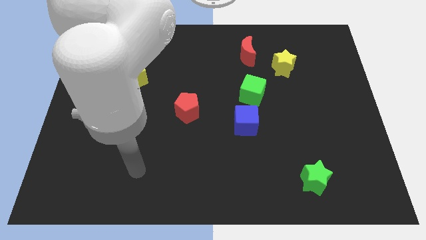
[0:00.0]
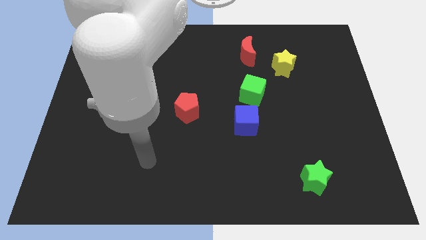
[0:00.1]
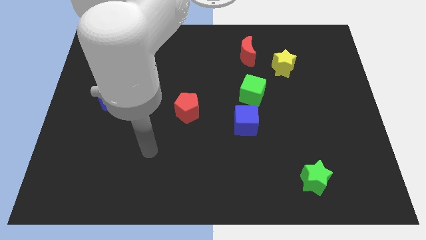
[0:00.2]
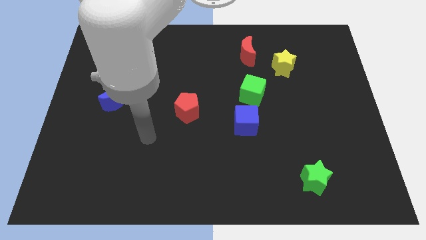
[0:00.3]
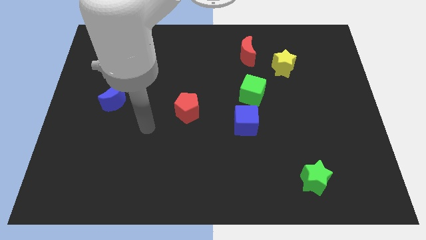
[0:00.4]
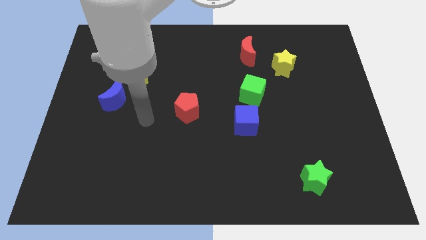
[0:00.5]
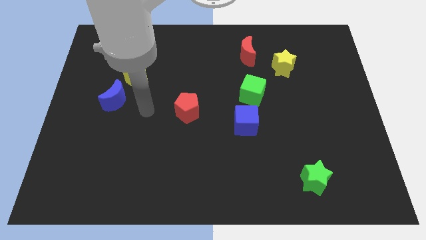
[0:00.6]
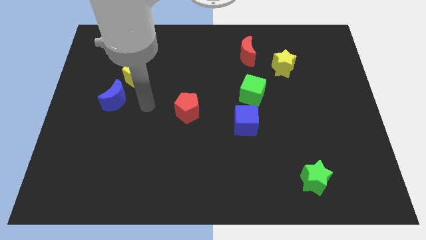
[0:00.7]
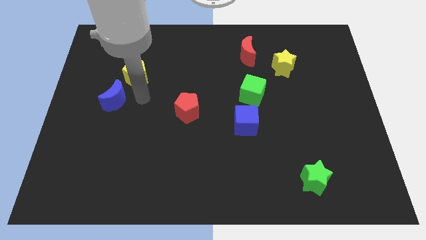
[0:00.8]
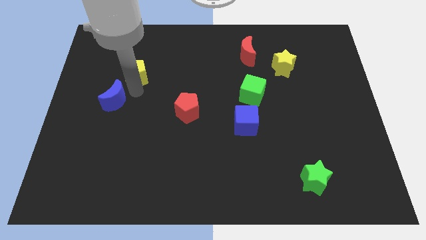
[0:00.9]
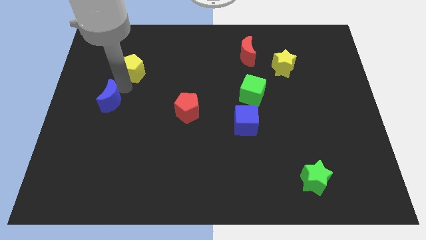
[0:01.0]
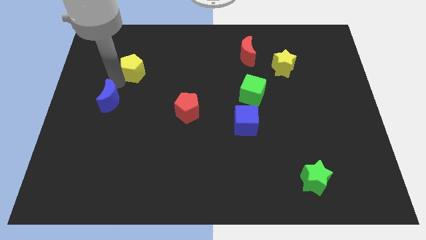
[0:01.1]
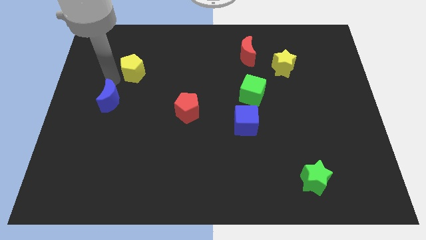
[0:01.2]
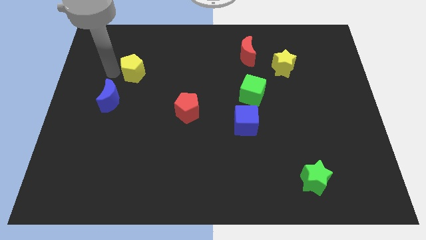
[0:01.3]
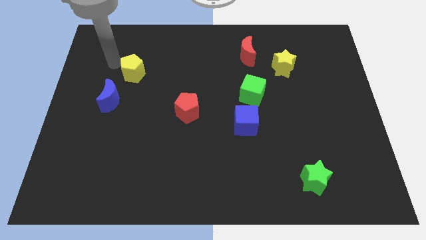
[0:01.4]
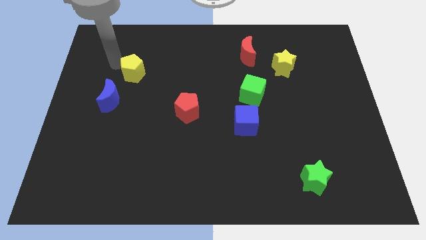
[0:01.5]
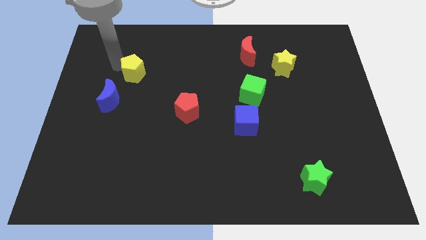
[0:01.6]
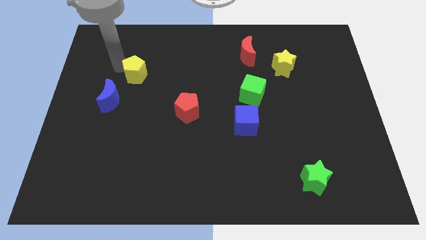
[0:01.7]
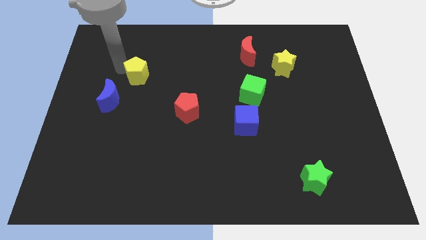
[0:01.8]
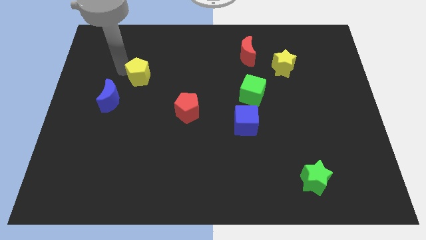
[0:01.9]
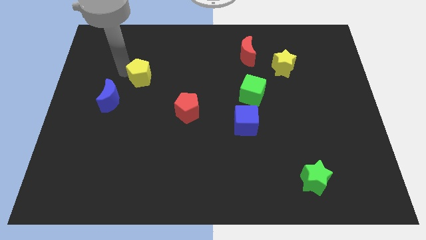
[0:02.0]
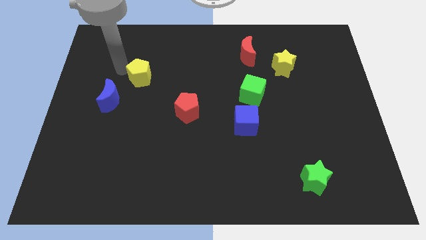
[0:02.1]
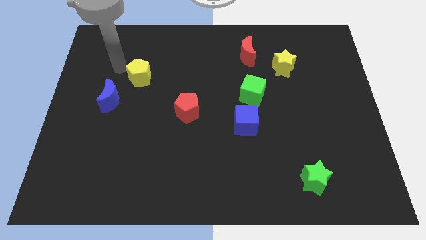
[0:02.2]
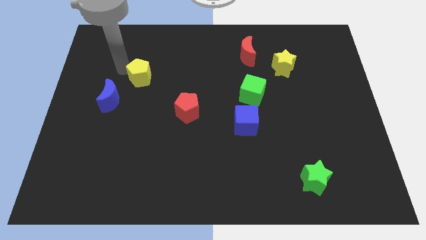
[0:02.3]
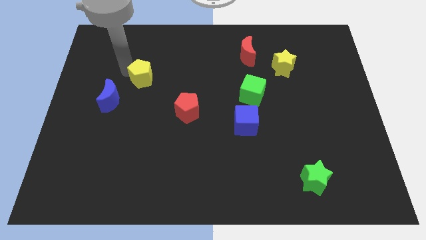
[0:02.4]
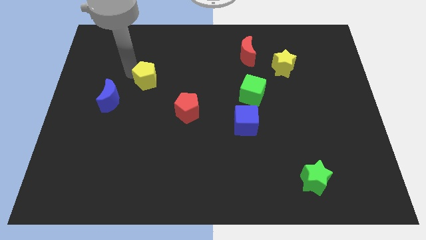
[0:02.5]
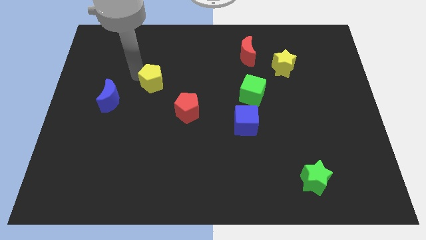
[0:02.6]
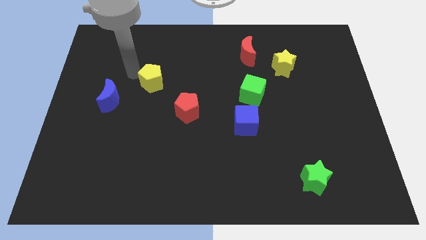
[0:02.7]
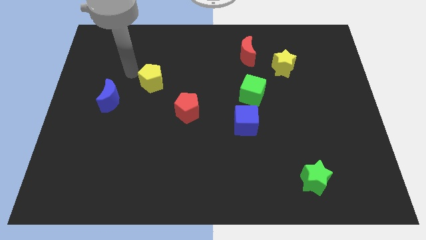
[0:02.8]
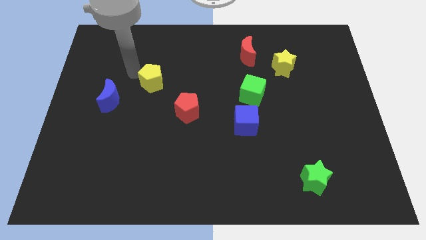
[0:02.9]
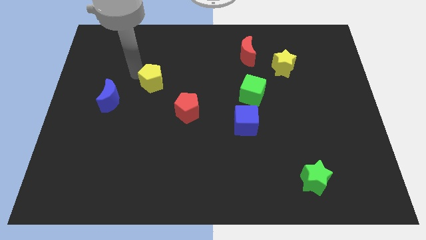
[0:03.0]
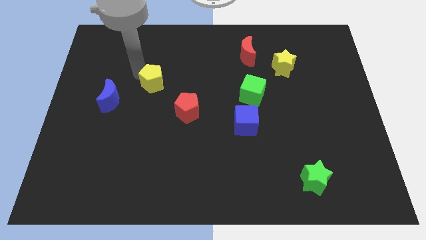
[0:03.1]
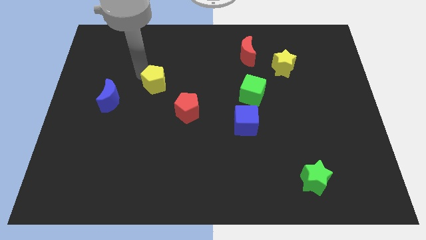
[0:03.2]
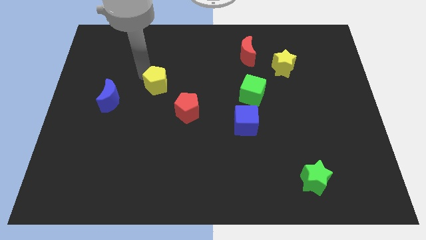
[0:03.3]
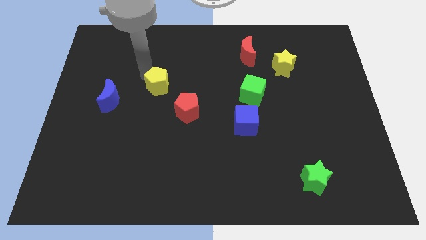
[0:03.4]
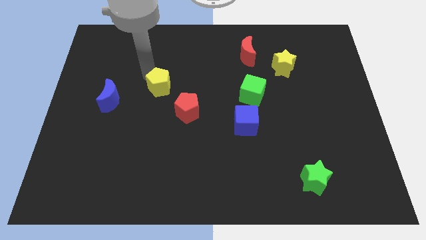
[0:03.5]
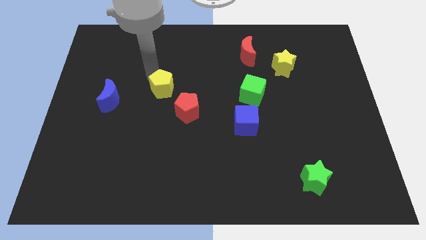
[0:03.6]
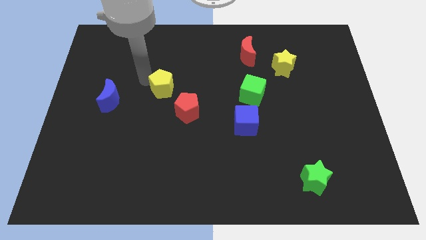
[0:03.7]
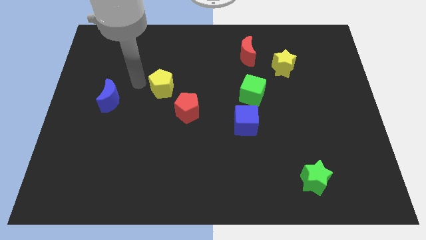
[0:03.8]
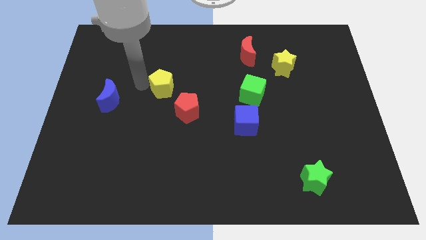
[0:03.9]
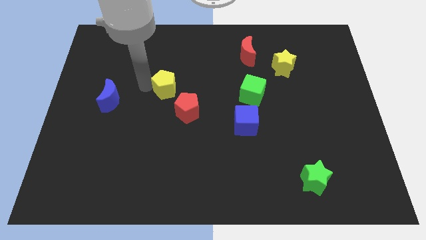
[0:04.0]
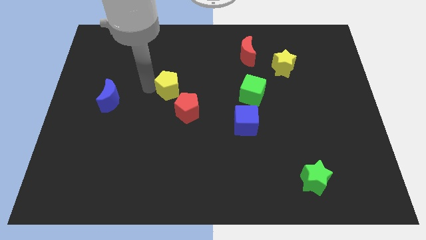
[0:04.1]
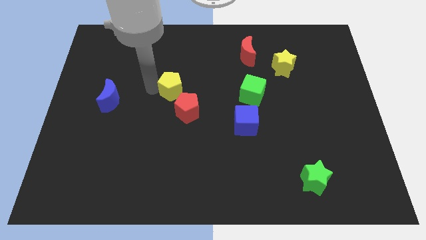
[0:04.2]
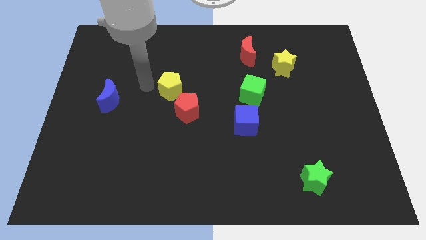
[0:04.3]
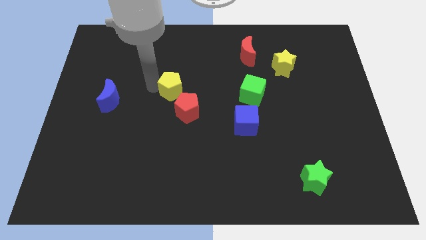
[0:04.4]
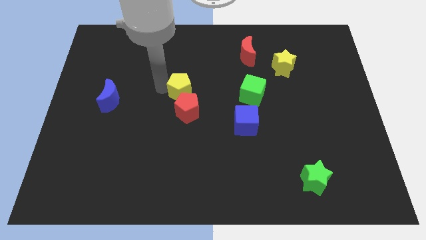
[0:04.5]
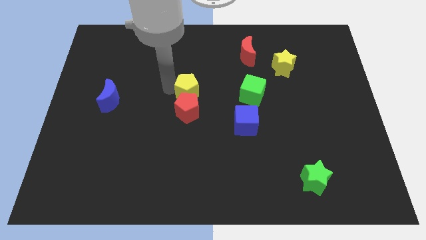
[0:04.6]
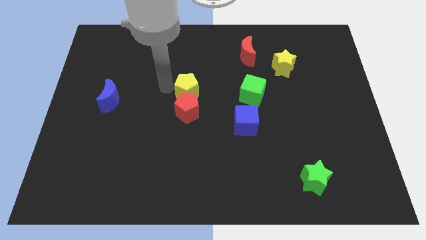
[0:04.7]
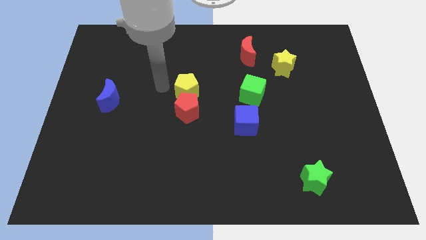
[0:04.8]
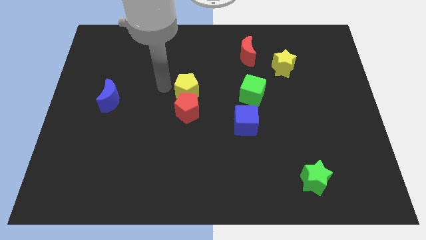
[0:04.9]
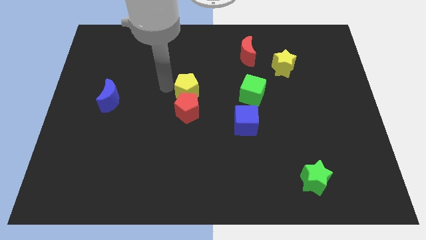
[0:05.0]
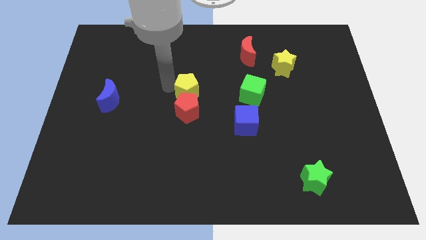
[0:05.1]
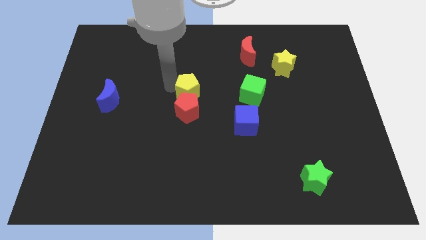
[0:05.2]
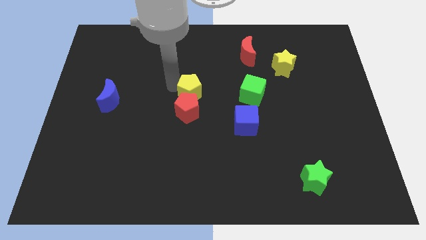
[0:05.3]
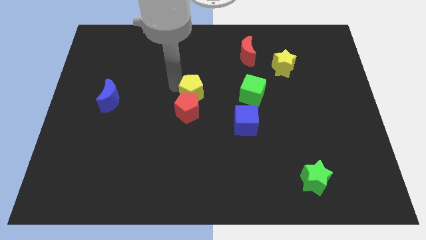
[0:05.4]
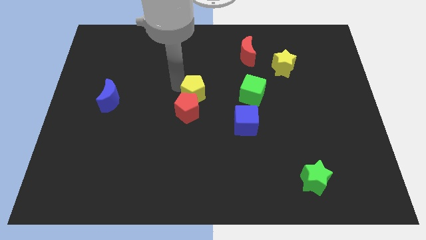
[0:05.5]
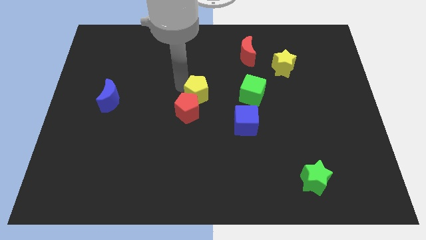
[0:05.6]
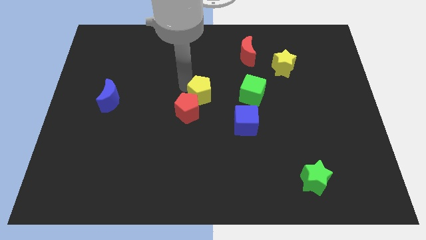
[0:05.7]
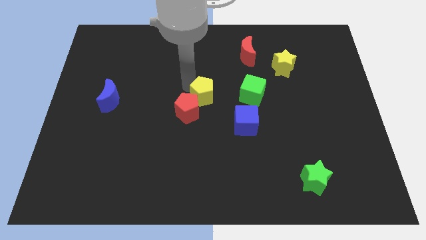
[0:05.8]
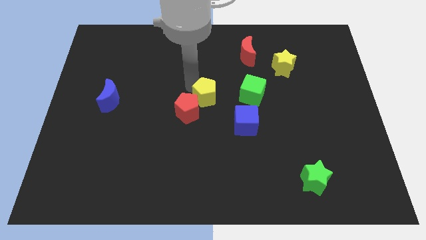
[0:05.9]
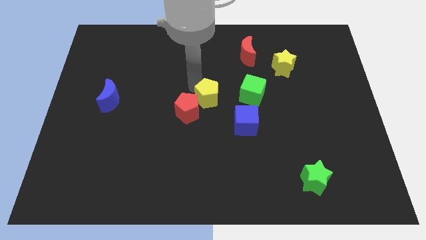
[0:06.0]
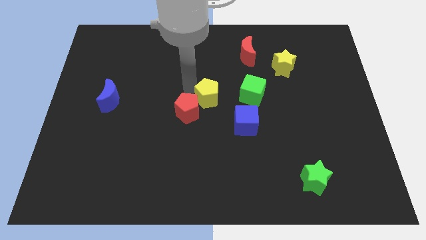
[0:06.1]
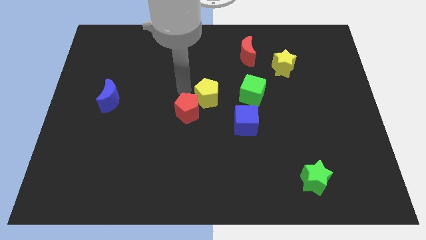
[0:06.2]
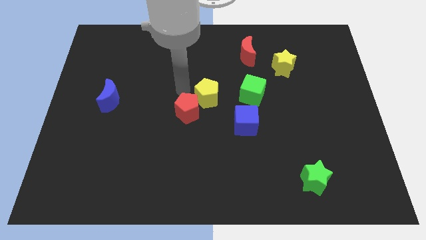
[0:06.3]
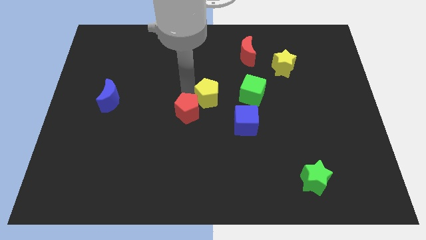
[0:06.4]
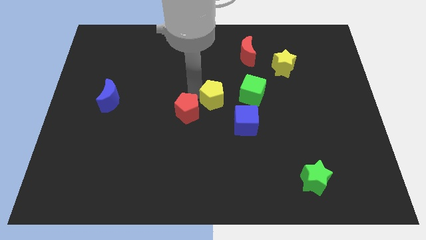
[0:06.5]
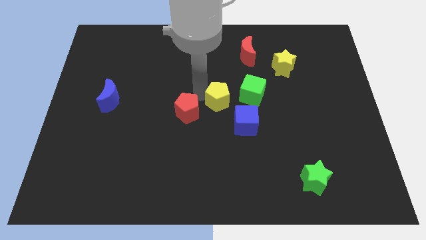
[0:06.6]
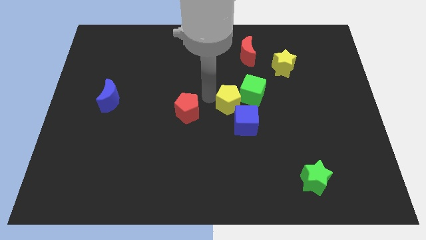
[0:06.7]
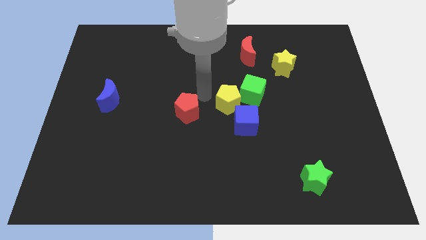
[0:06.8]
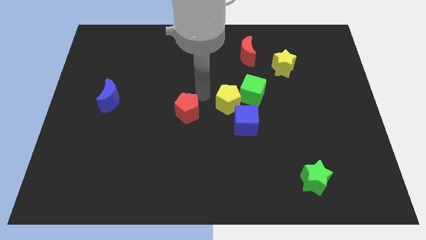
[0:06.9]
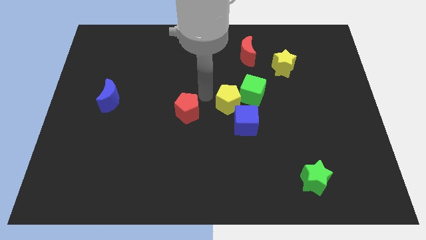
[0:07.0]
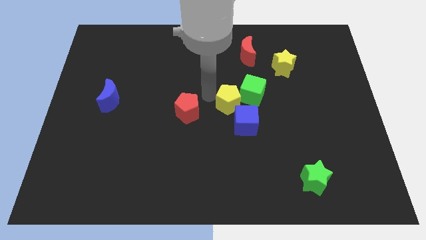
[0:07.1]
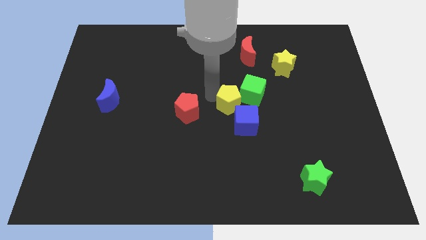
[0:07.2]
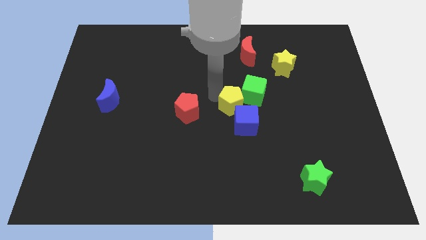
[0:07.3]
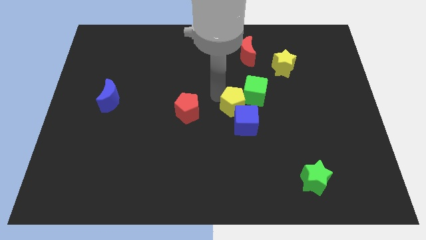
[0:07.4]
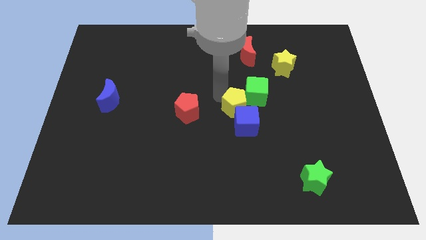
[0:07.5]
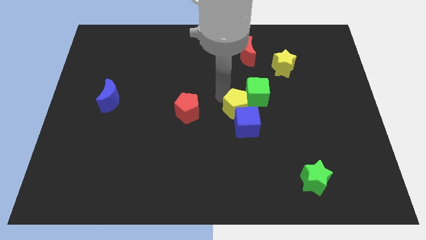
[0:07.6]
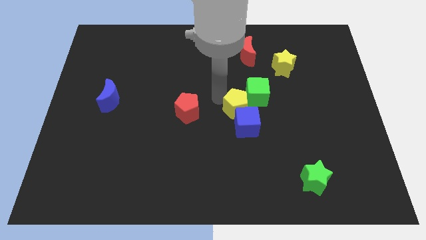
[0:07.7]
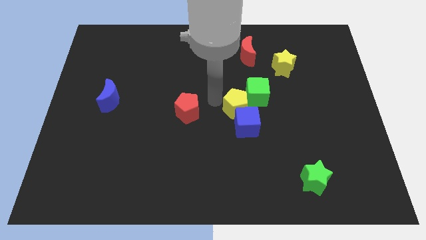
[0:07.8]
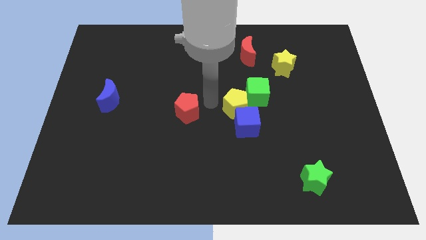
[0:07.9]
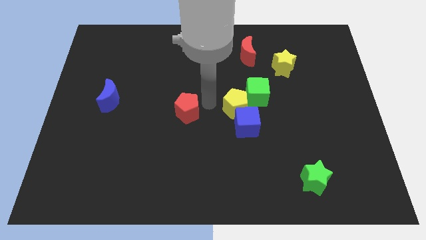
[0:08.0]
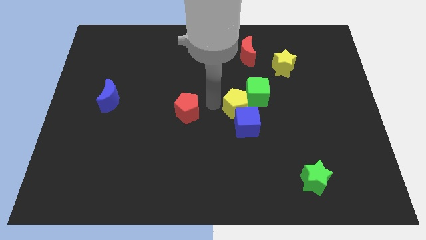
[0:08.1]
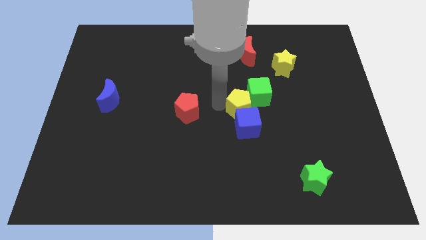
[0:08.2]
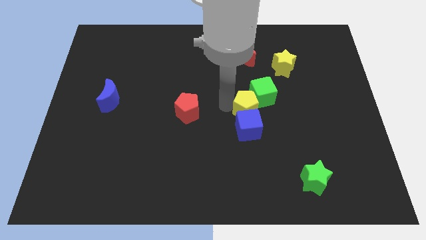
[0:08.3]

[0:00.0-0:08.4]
slide the yellow pentagon to the top right side of the blue cube
